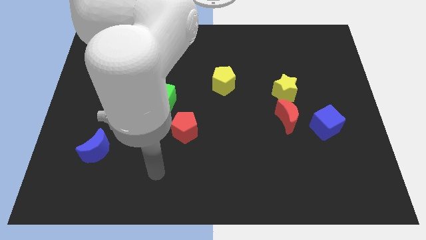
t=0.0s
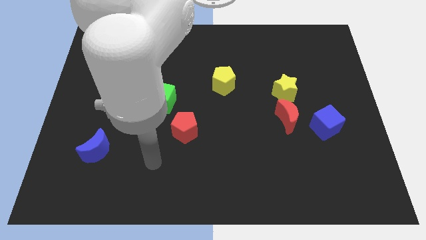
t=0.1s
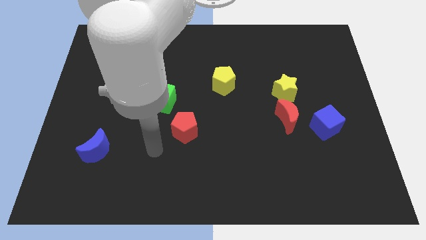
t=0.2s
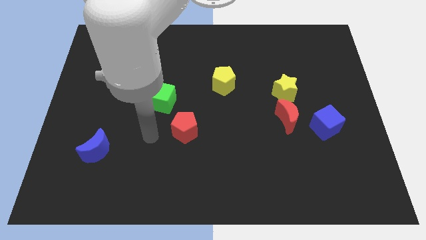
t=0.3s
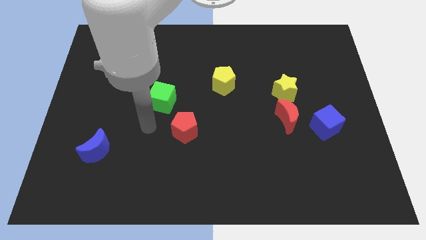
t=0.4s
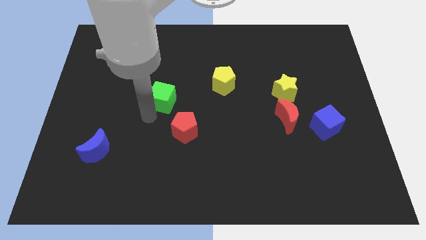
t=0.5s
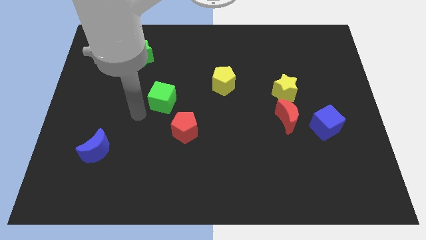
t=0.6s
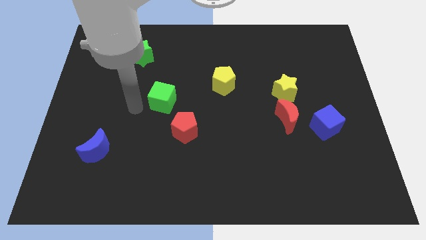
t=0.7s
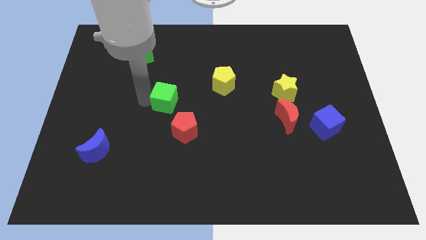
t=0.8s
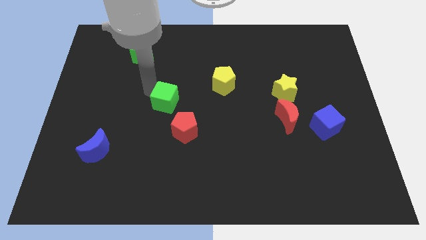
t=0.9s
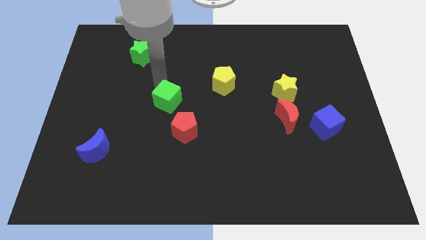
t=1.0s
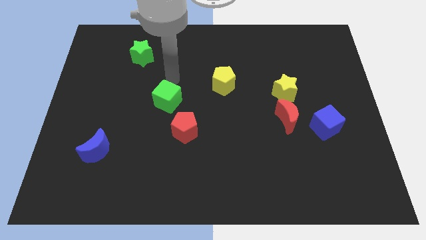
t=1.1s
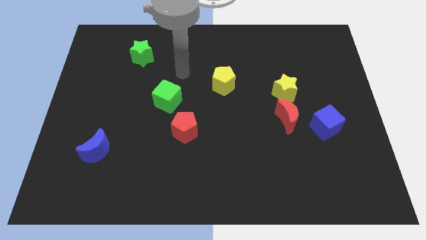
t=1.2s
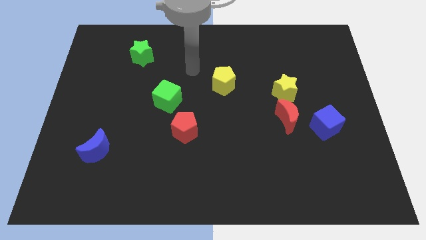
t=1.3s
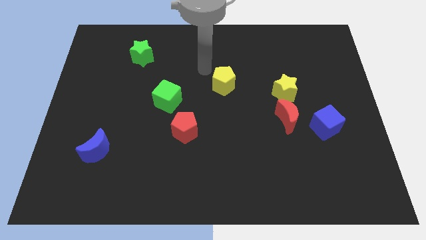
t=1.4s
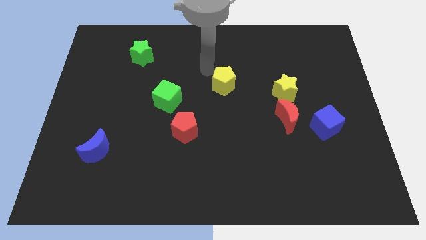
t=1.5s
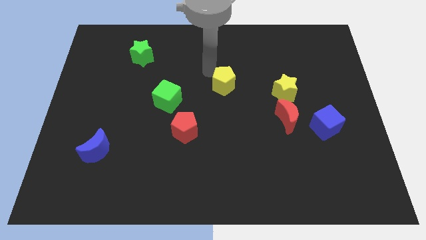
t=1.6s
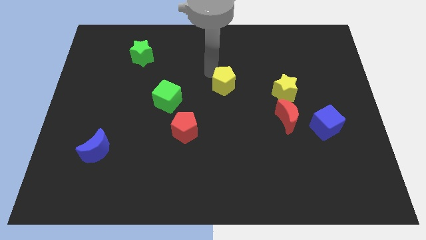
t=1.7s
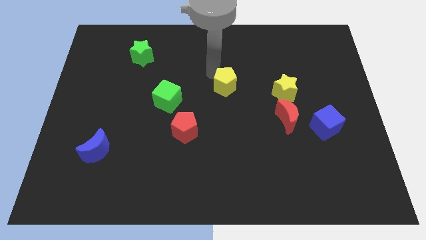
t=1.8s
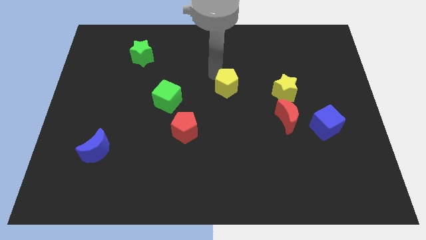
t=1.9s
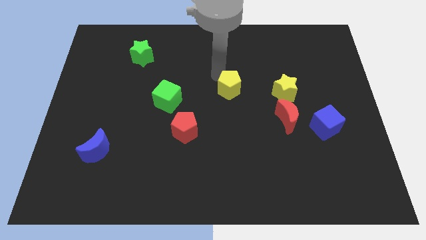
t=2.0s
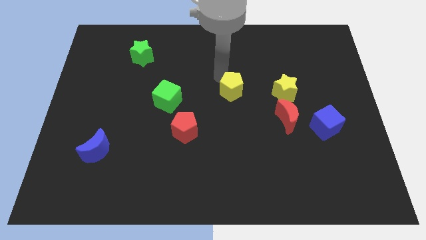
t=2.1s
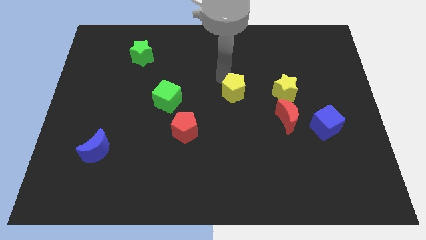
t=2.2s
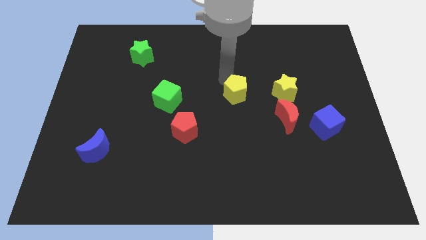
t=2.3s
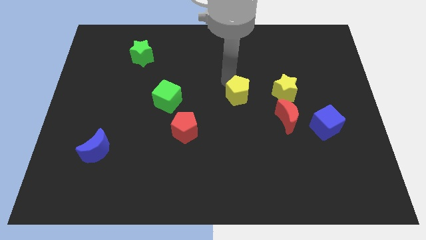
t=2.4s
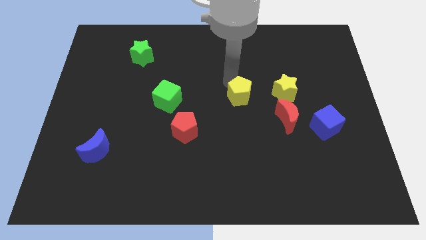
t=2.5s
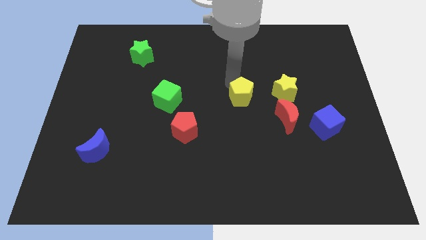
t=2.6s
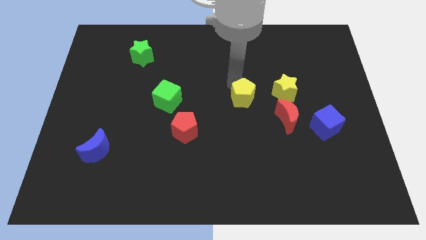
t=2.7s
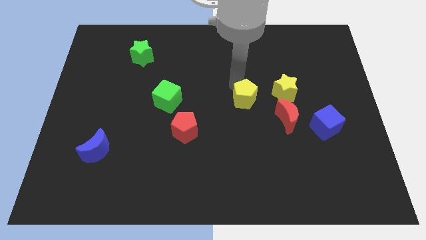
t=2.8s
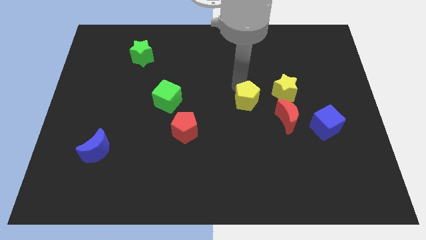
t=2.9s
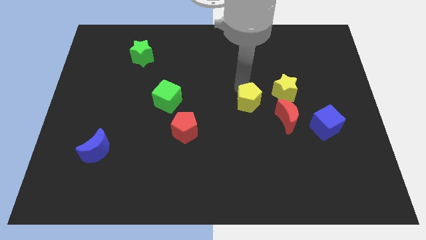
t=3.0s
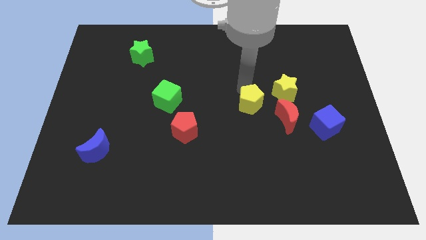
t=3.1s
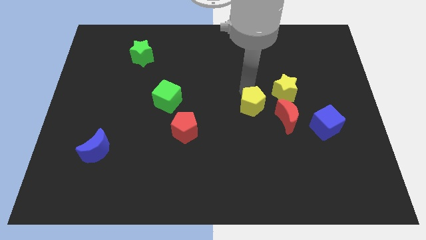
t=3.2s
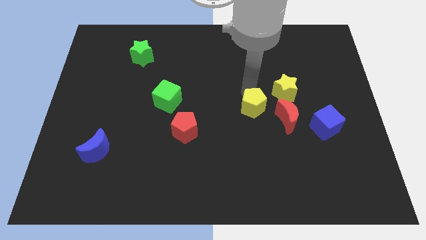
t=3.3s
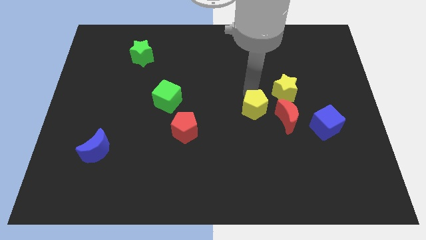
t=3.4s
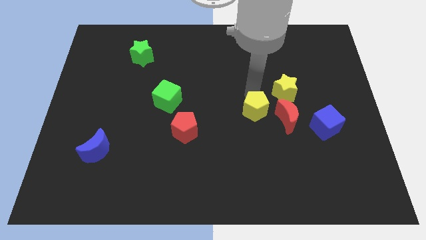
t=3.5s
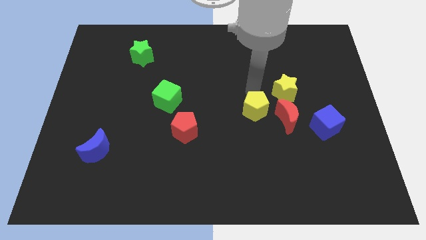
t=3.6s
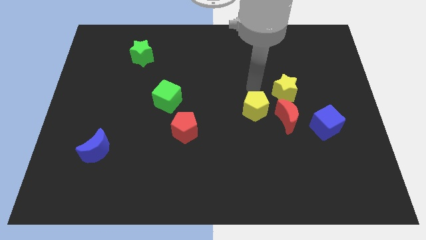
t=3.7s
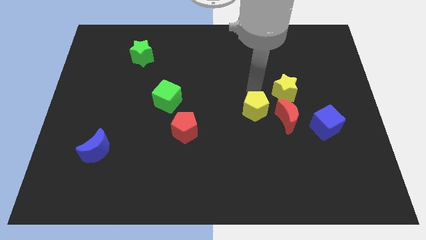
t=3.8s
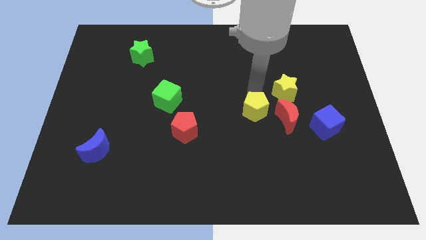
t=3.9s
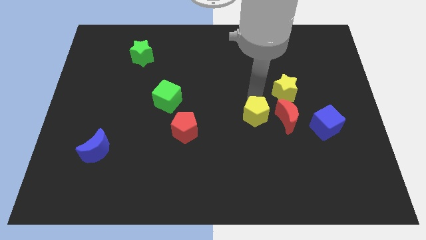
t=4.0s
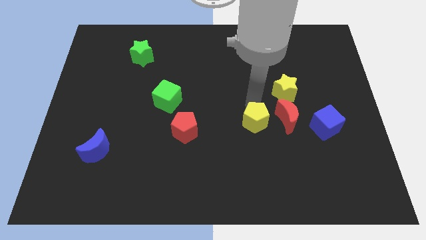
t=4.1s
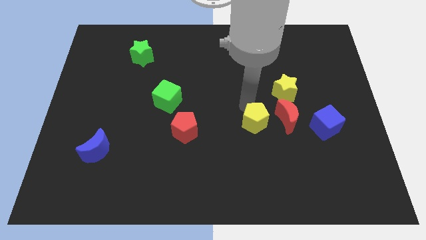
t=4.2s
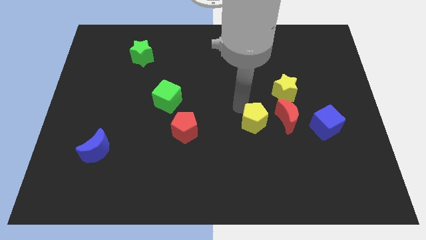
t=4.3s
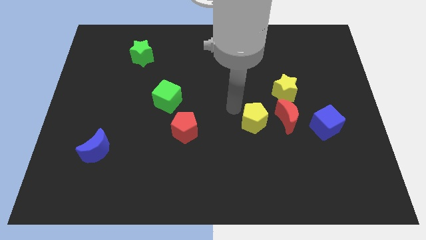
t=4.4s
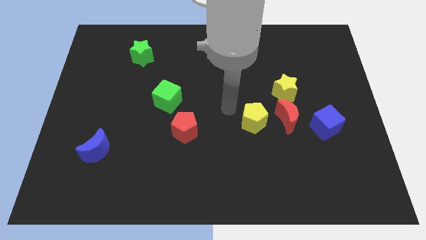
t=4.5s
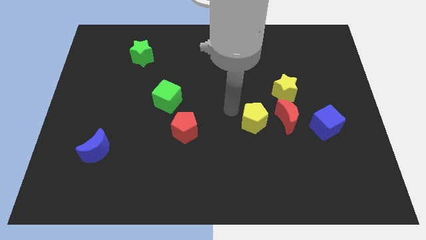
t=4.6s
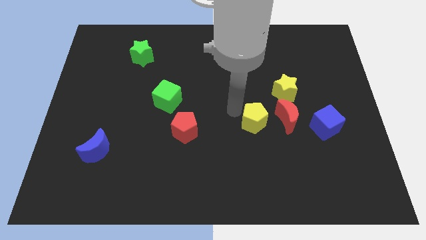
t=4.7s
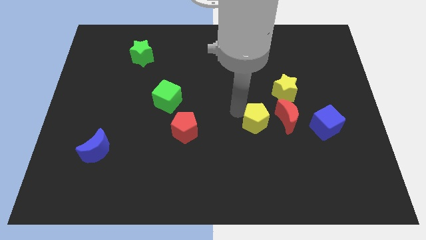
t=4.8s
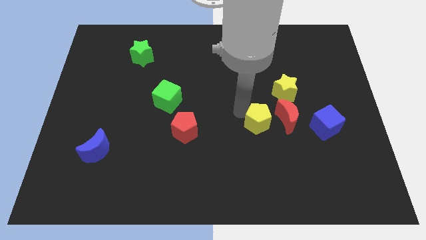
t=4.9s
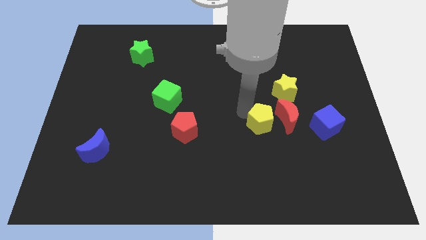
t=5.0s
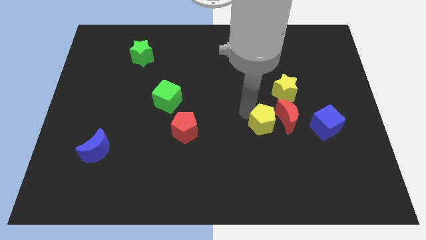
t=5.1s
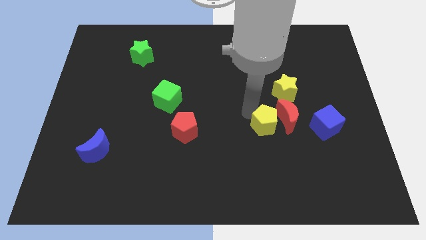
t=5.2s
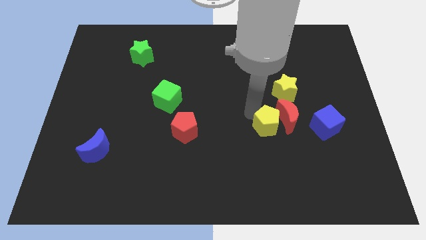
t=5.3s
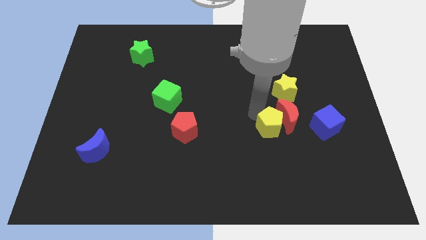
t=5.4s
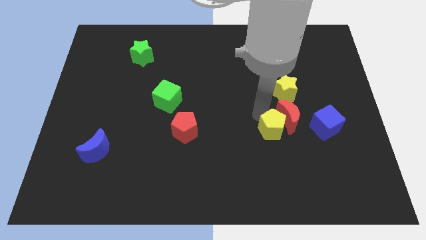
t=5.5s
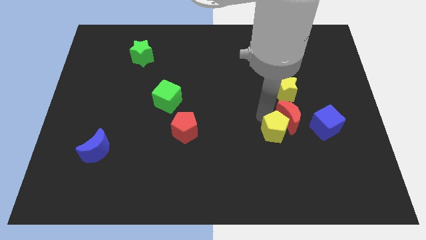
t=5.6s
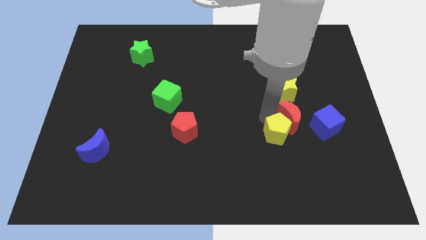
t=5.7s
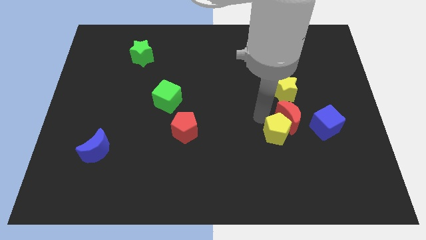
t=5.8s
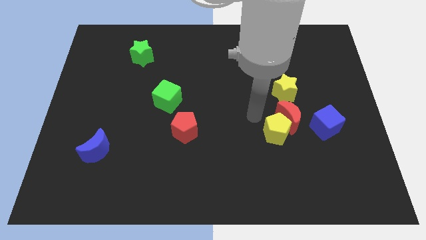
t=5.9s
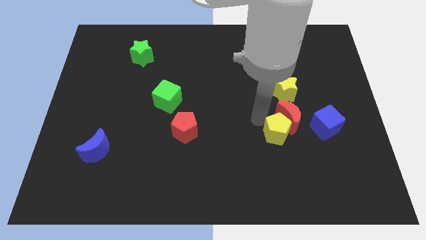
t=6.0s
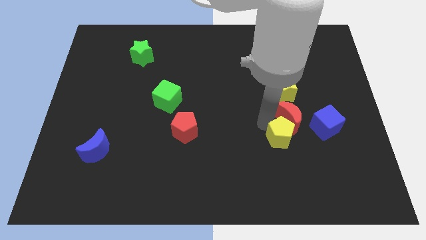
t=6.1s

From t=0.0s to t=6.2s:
push the yellow pentagon downwards and right diagonally

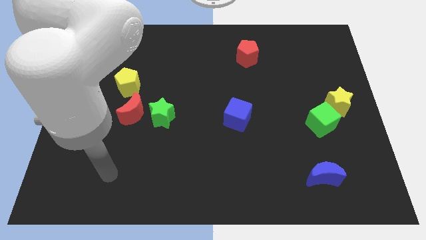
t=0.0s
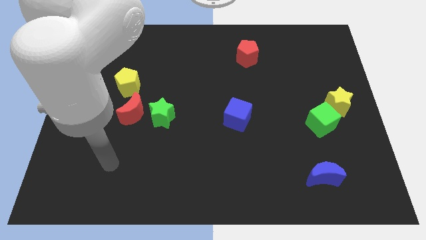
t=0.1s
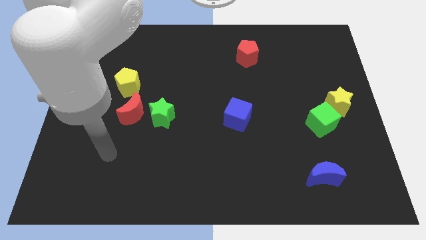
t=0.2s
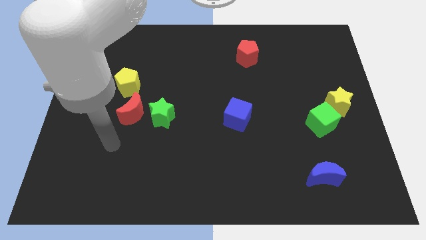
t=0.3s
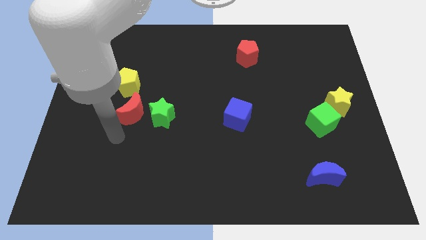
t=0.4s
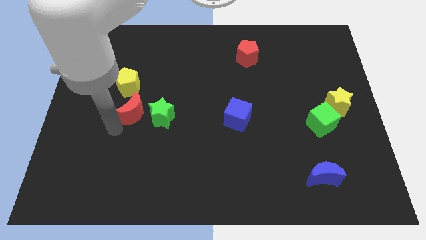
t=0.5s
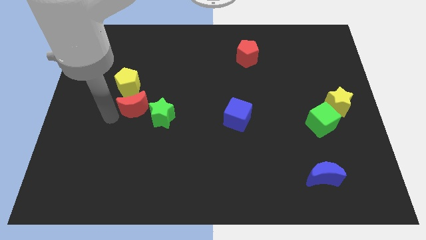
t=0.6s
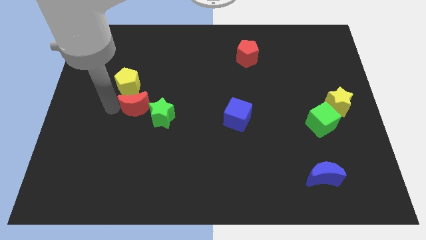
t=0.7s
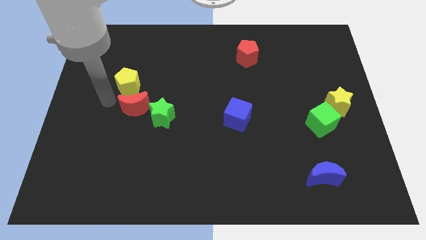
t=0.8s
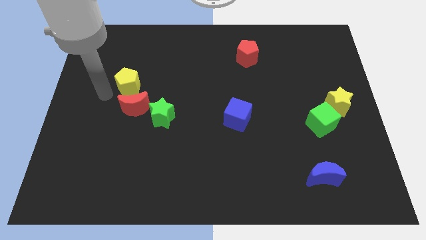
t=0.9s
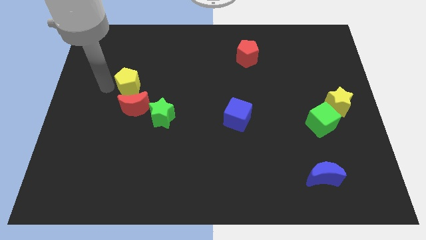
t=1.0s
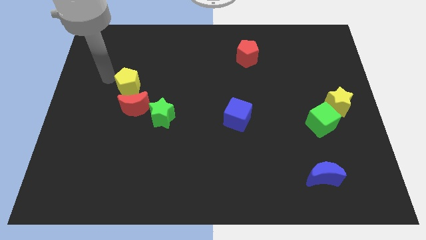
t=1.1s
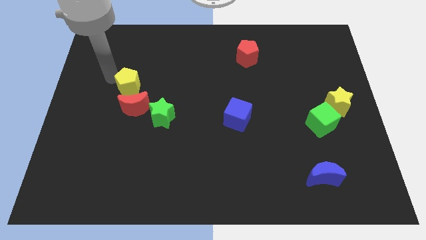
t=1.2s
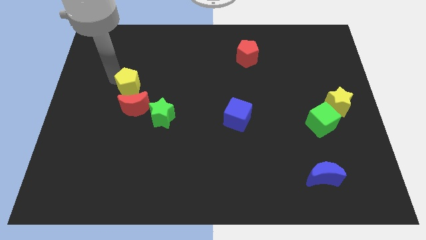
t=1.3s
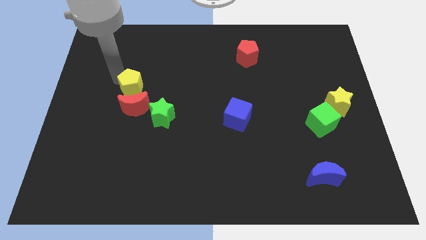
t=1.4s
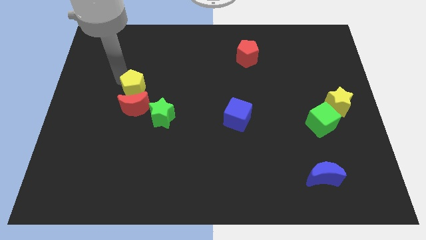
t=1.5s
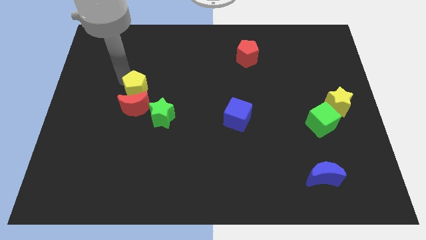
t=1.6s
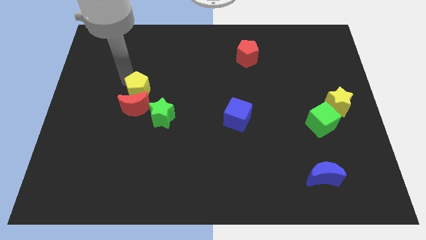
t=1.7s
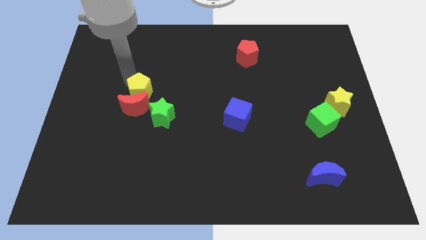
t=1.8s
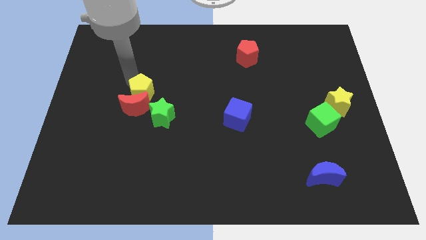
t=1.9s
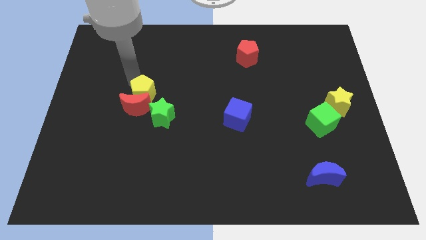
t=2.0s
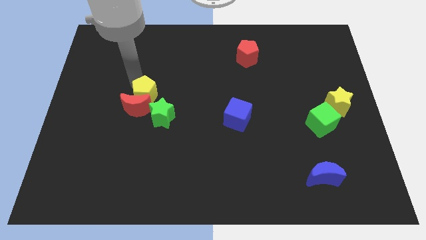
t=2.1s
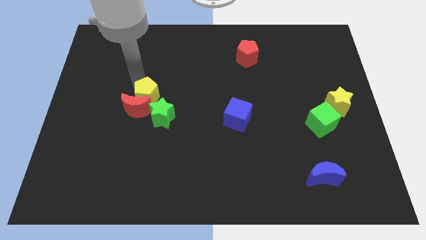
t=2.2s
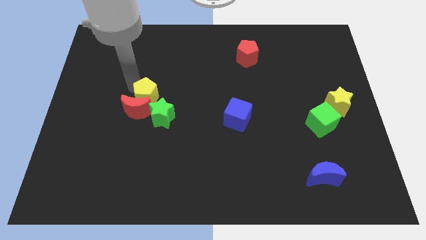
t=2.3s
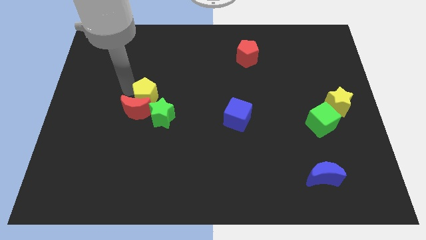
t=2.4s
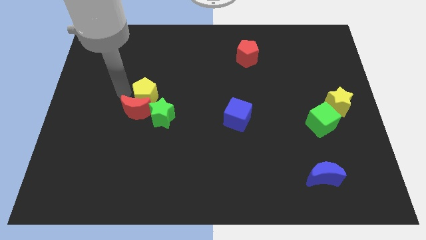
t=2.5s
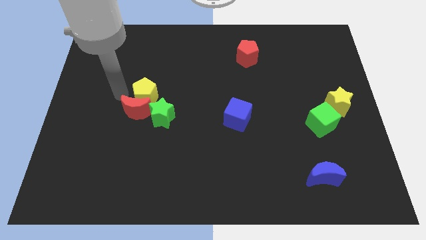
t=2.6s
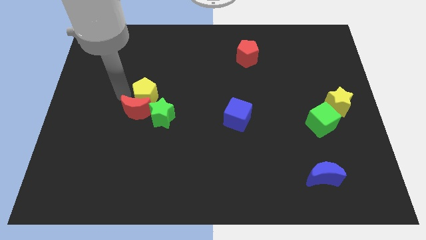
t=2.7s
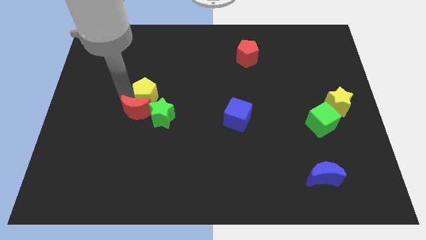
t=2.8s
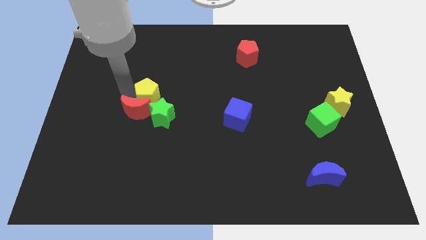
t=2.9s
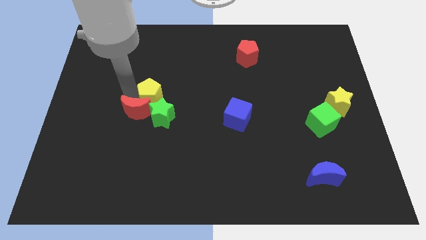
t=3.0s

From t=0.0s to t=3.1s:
move the yellow pentagon somewhat diagonally down and to the right
